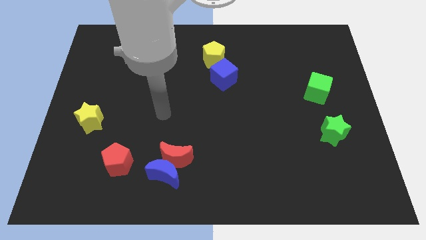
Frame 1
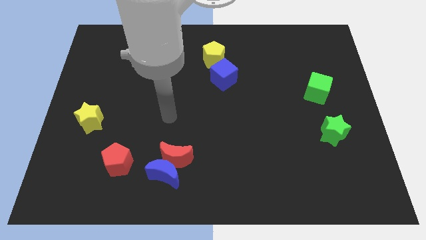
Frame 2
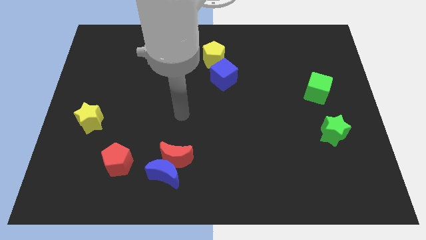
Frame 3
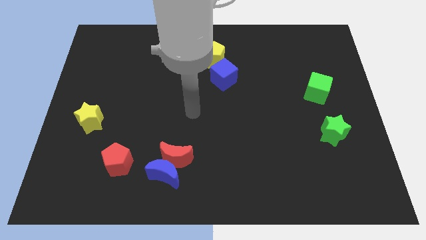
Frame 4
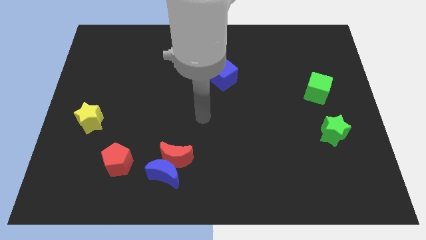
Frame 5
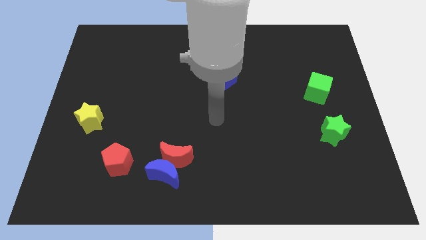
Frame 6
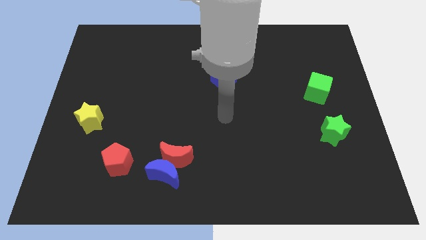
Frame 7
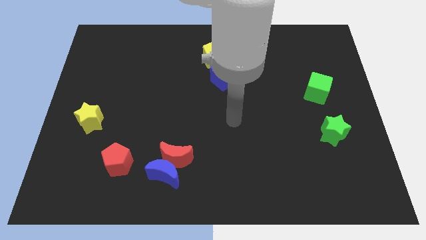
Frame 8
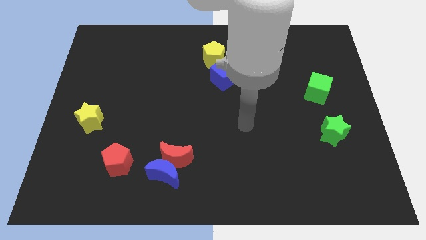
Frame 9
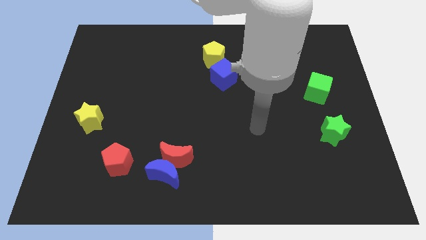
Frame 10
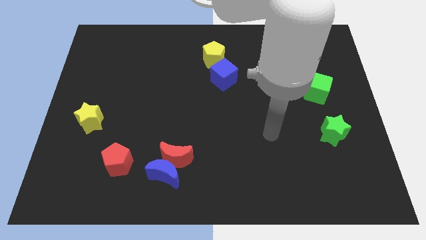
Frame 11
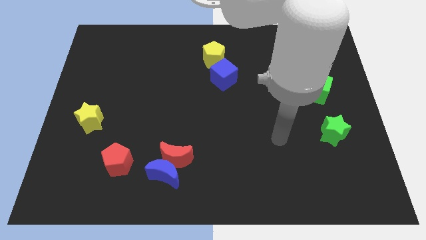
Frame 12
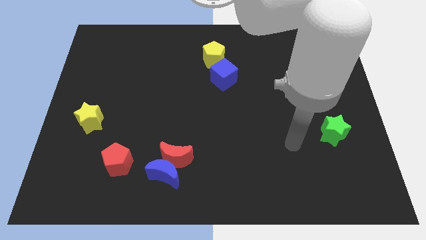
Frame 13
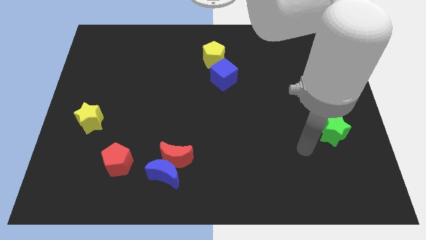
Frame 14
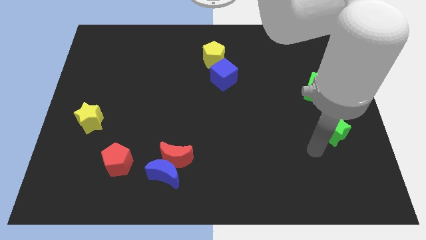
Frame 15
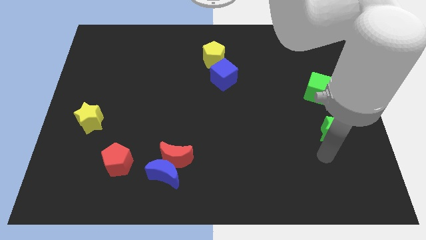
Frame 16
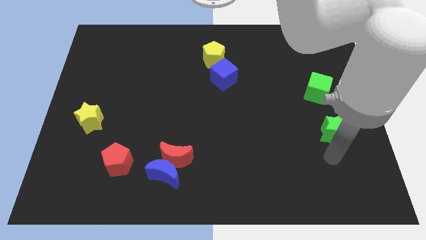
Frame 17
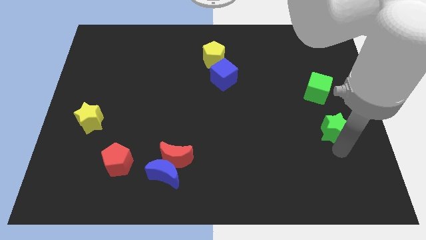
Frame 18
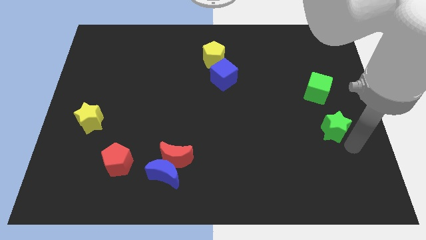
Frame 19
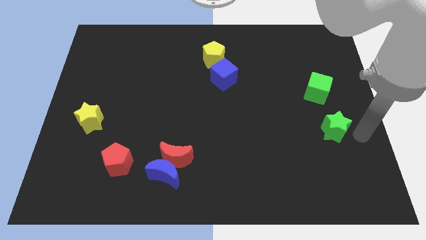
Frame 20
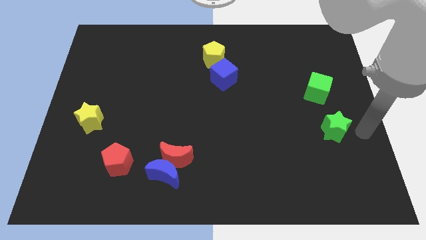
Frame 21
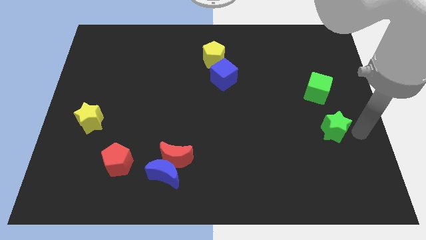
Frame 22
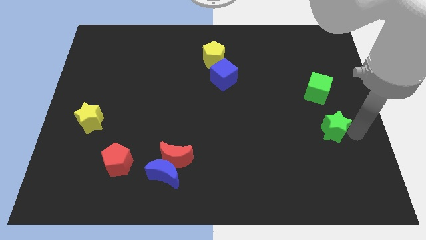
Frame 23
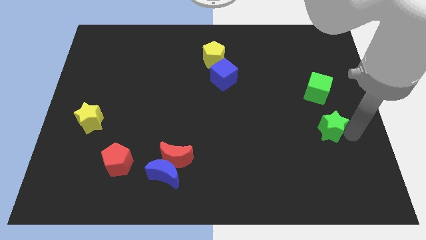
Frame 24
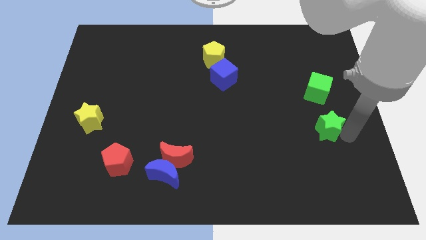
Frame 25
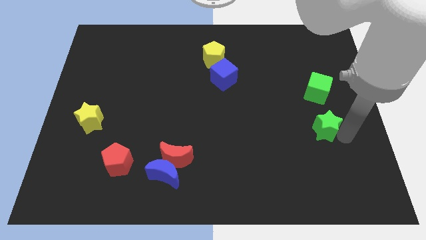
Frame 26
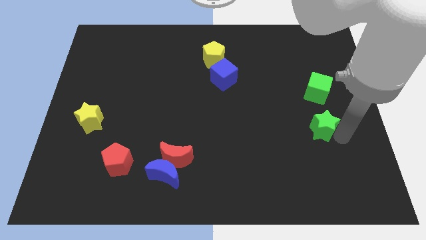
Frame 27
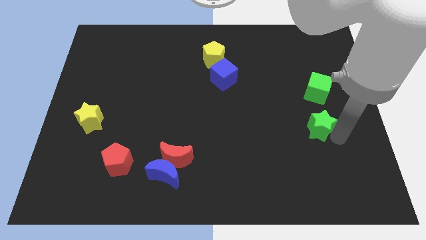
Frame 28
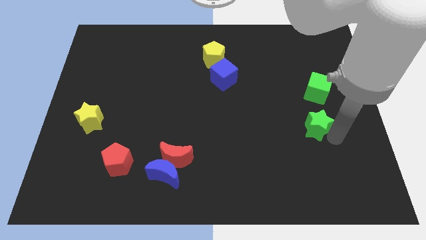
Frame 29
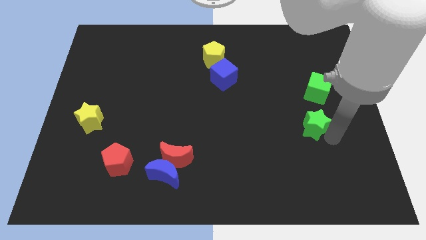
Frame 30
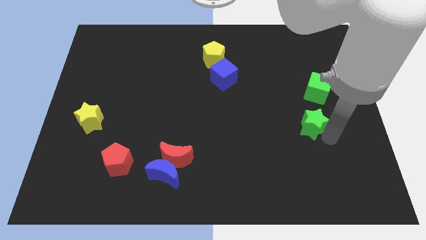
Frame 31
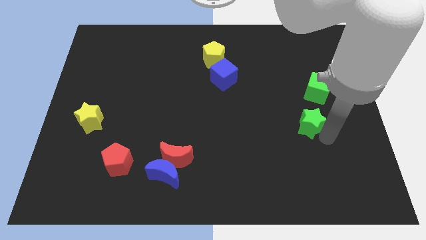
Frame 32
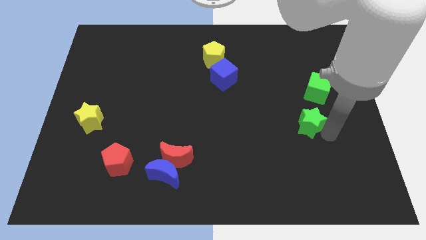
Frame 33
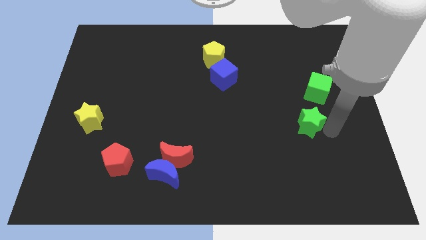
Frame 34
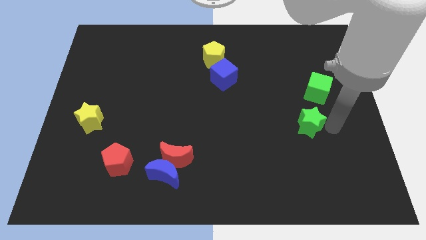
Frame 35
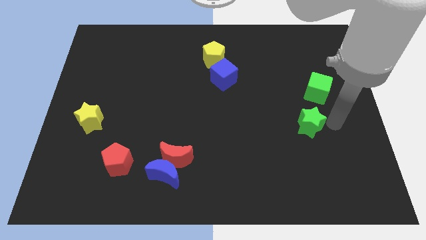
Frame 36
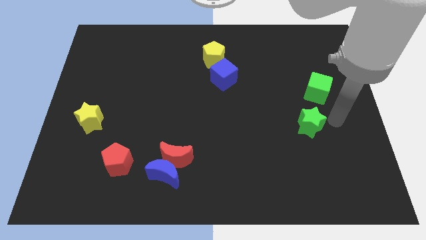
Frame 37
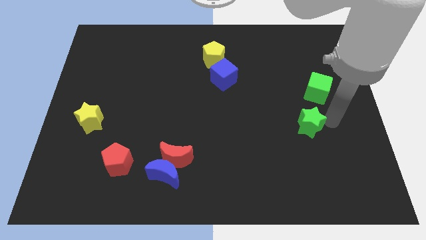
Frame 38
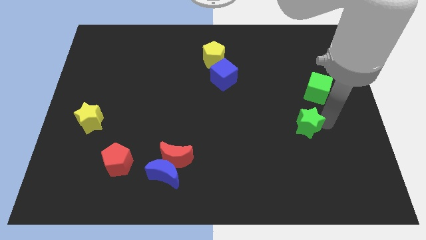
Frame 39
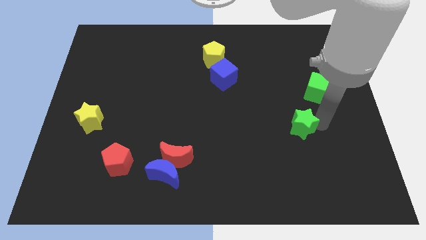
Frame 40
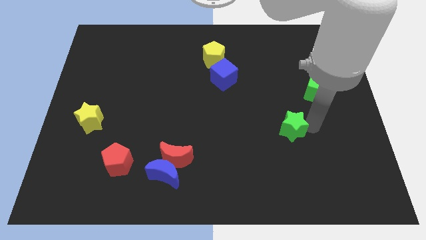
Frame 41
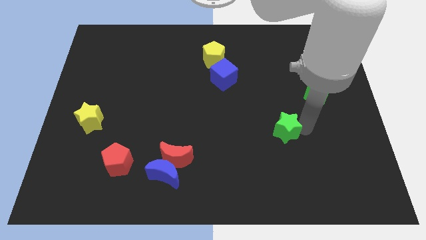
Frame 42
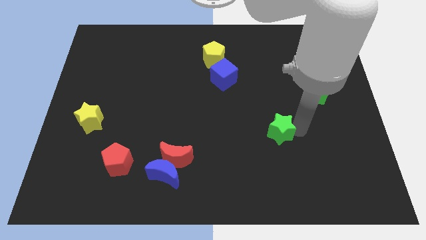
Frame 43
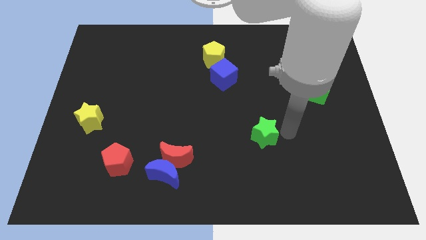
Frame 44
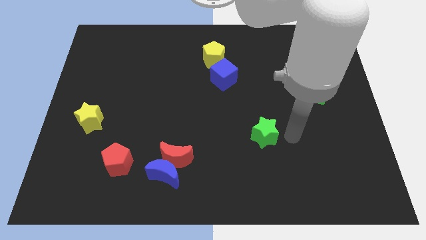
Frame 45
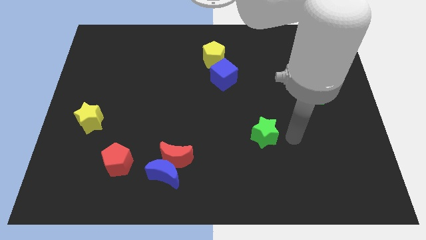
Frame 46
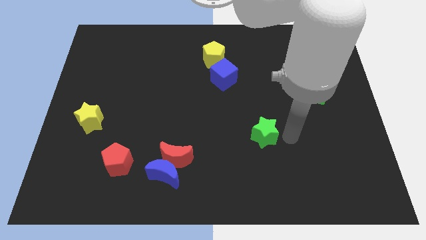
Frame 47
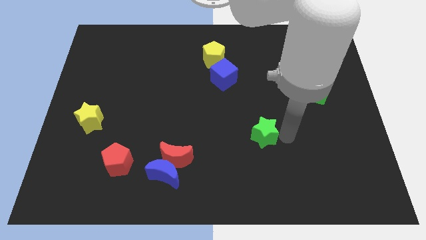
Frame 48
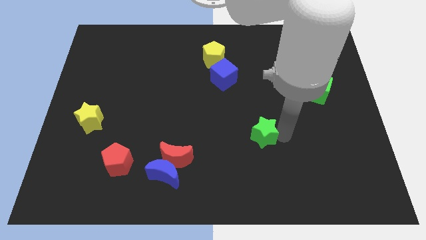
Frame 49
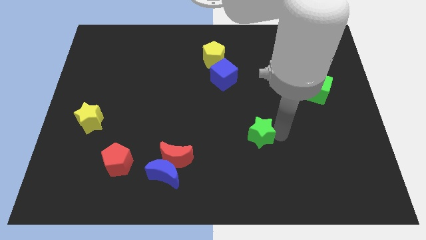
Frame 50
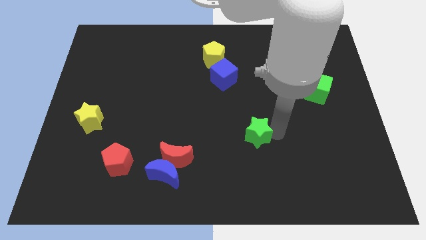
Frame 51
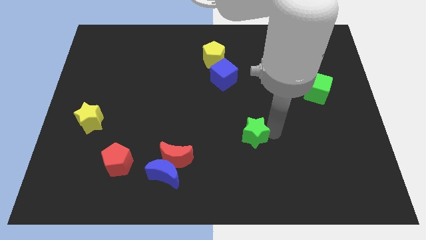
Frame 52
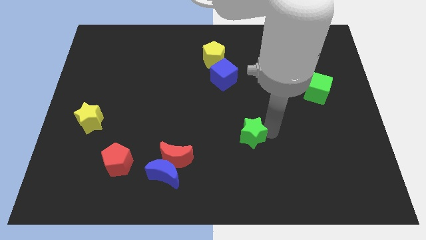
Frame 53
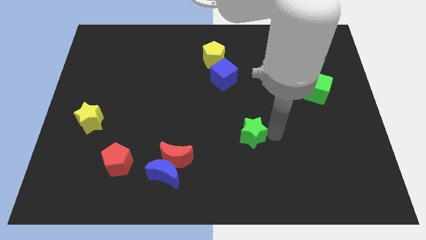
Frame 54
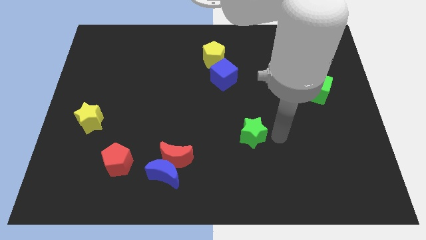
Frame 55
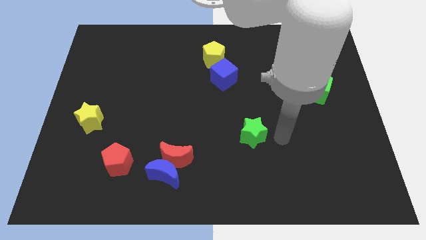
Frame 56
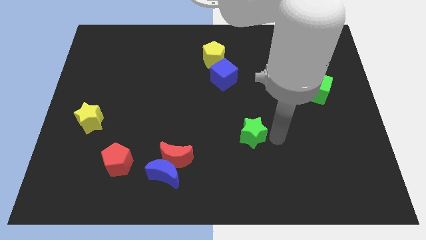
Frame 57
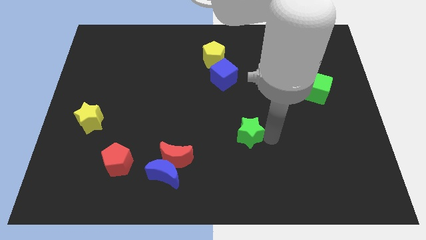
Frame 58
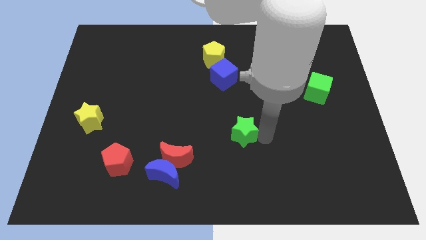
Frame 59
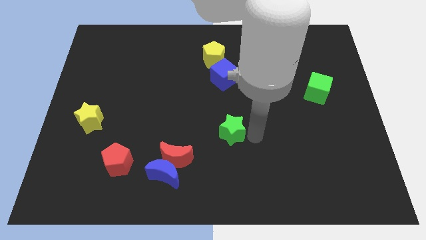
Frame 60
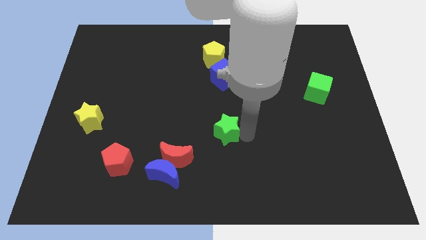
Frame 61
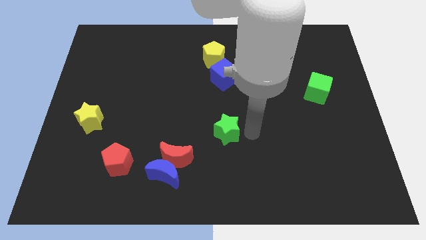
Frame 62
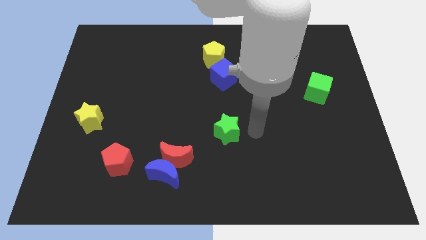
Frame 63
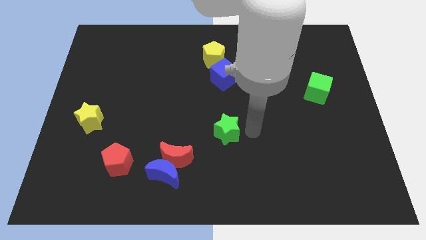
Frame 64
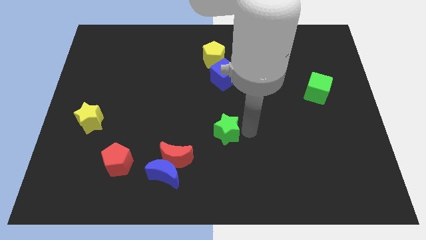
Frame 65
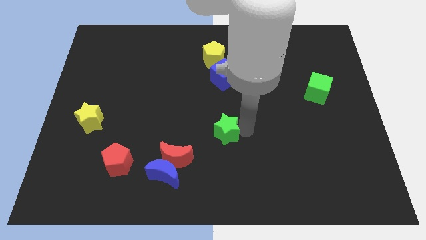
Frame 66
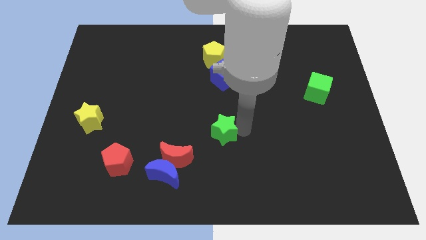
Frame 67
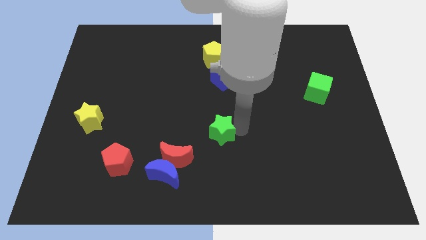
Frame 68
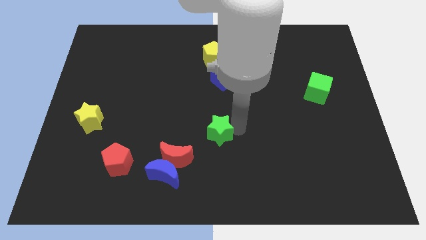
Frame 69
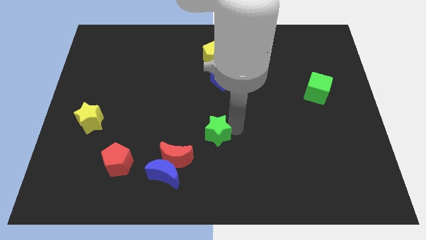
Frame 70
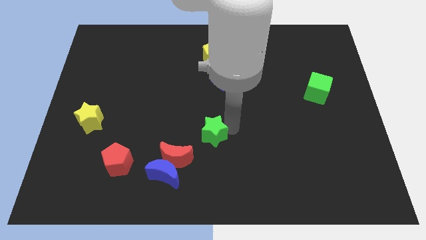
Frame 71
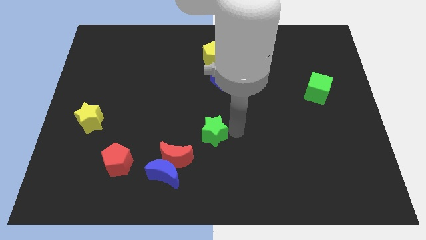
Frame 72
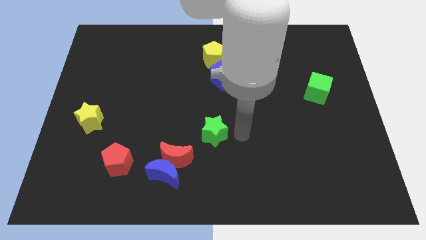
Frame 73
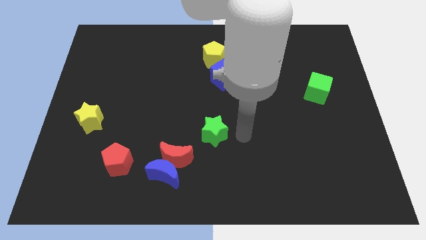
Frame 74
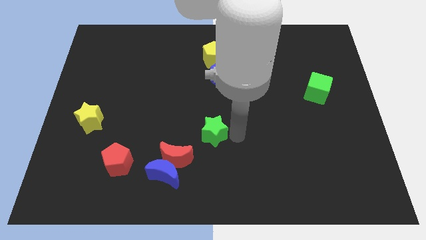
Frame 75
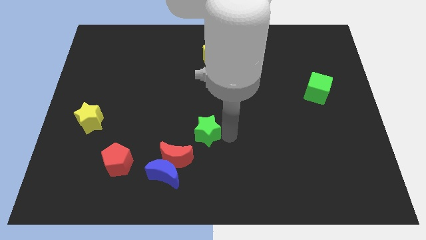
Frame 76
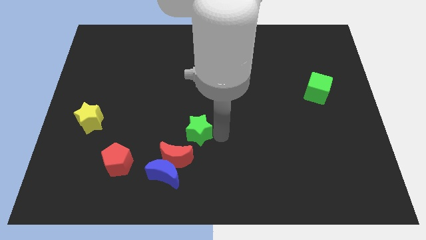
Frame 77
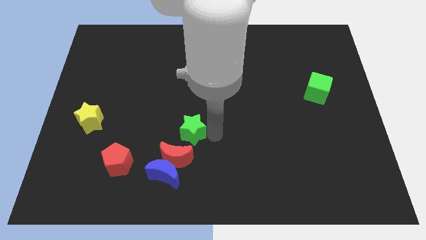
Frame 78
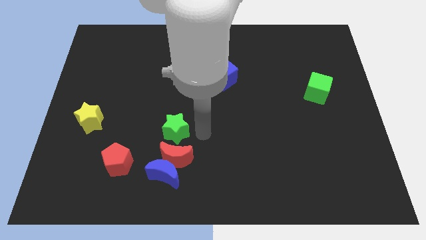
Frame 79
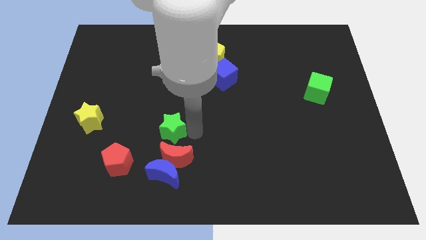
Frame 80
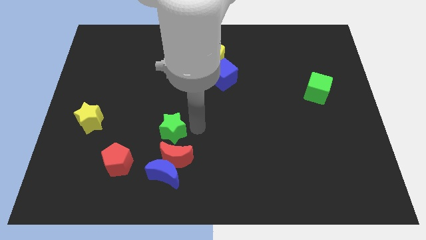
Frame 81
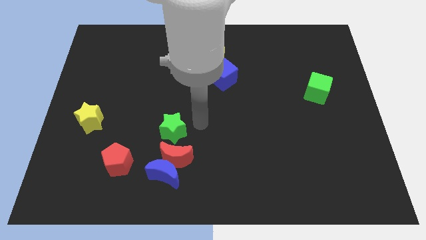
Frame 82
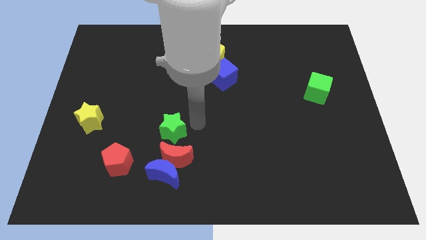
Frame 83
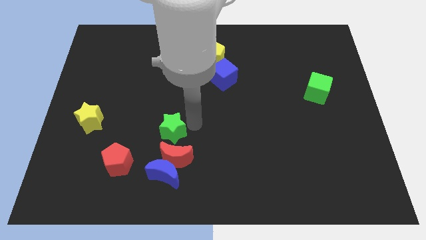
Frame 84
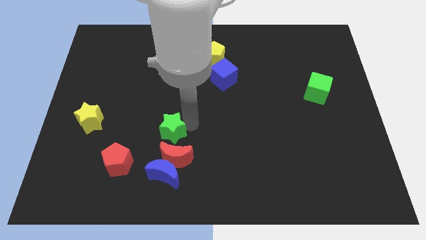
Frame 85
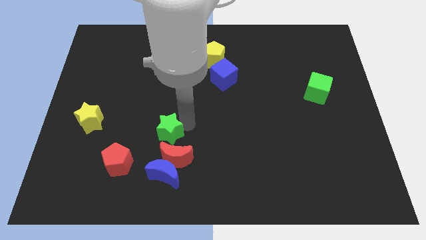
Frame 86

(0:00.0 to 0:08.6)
put the green star to the top right of the red pentagon
